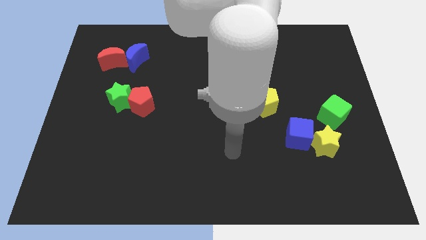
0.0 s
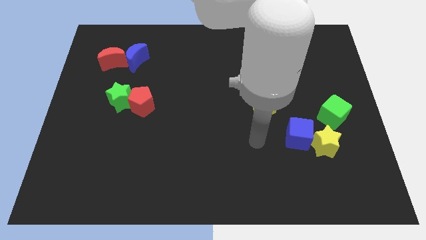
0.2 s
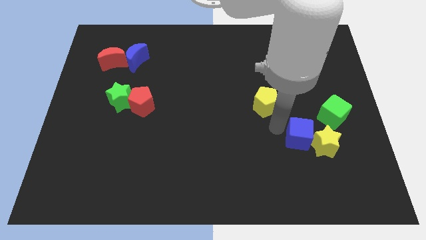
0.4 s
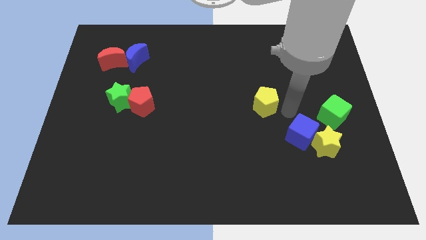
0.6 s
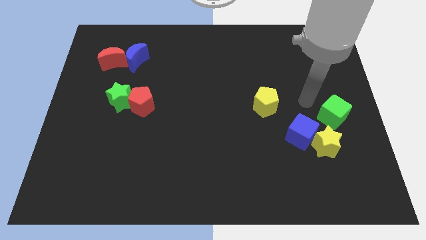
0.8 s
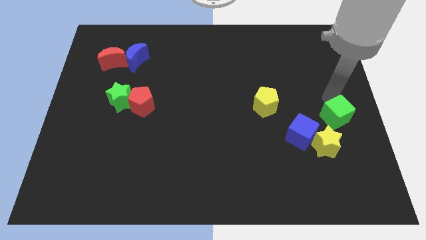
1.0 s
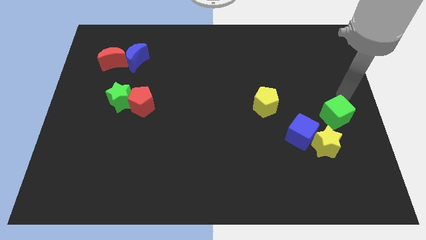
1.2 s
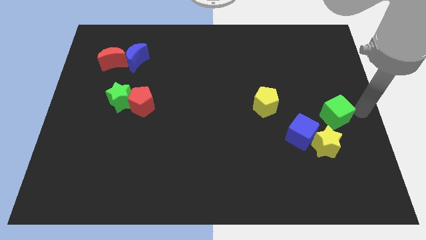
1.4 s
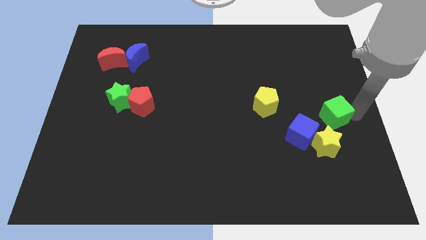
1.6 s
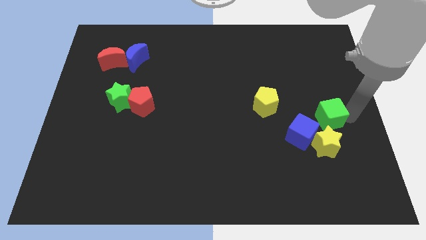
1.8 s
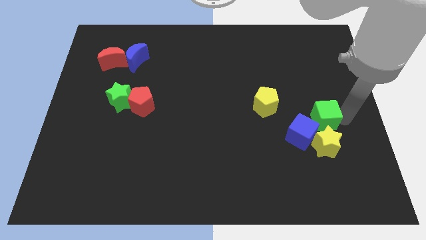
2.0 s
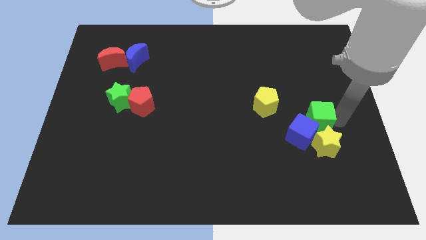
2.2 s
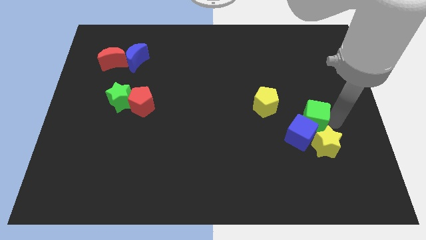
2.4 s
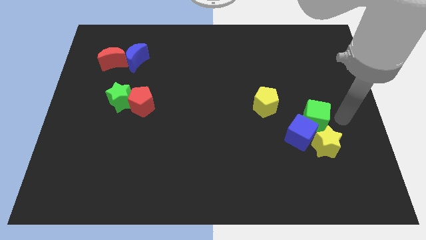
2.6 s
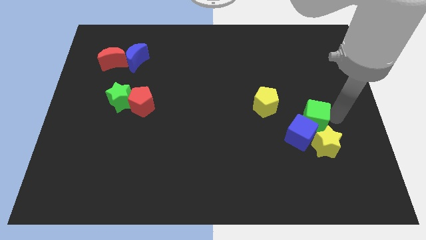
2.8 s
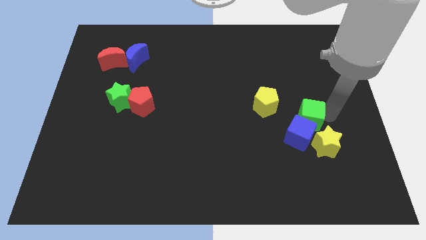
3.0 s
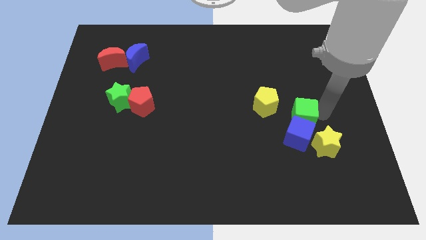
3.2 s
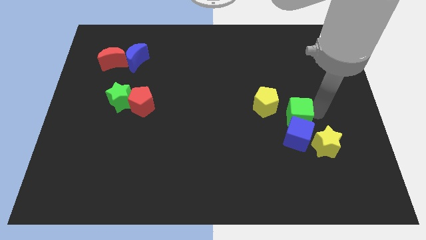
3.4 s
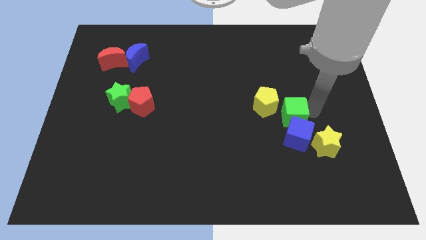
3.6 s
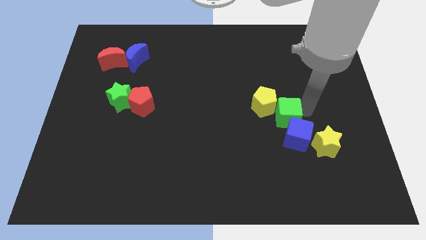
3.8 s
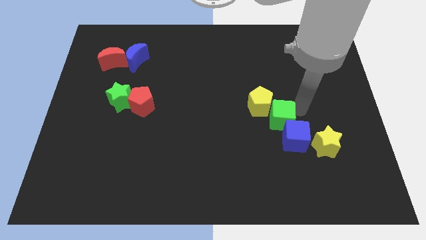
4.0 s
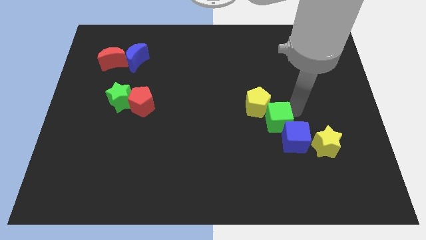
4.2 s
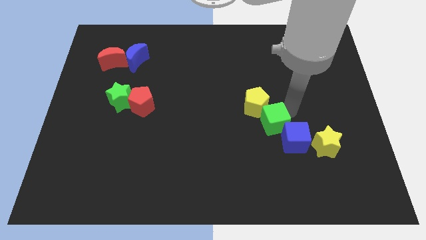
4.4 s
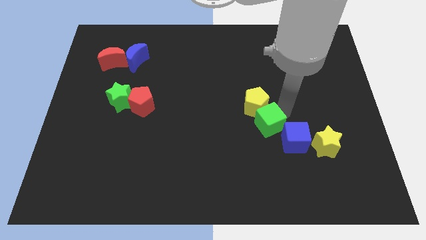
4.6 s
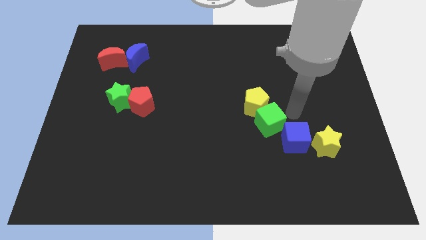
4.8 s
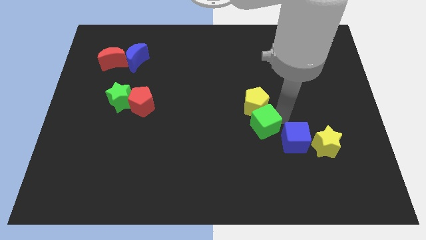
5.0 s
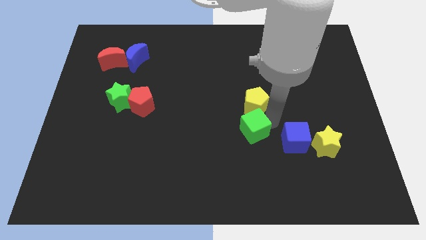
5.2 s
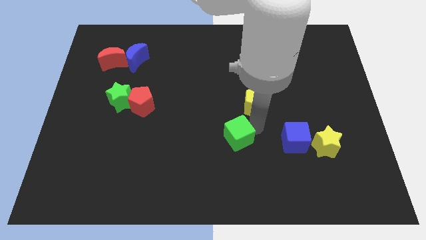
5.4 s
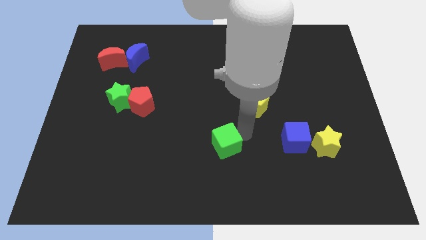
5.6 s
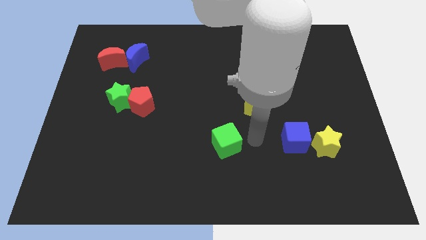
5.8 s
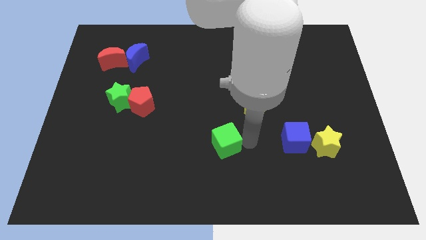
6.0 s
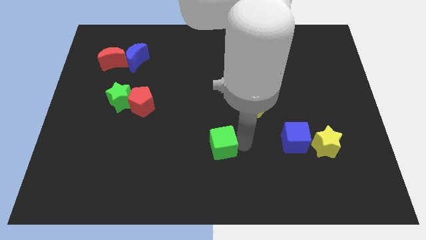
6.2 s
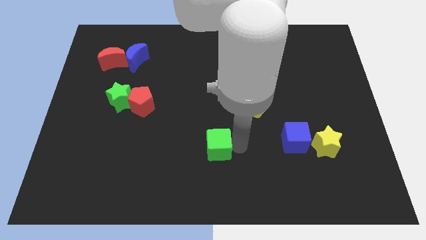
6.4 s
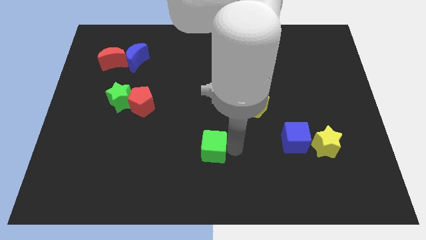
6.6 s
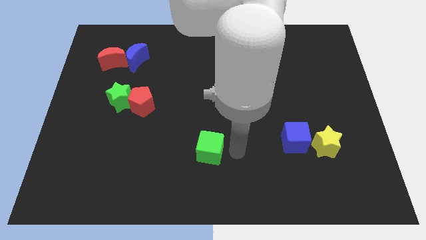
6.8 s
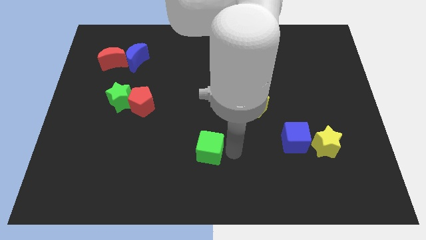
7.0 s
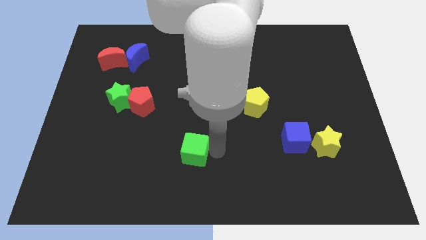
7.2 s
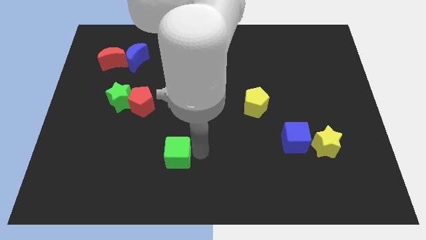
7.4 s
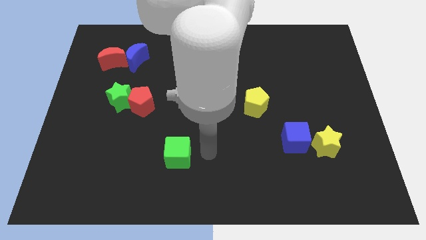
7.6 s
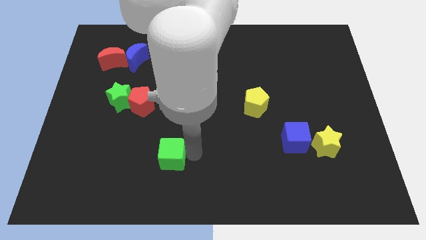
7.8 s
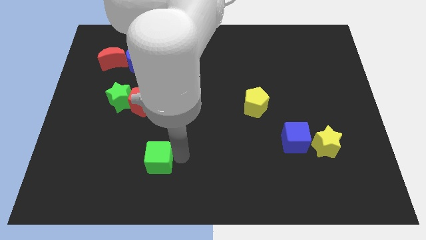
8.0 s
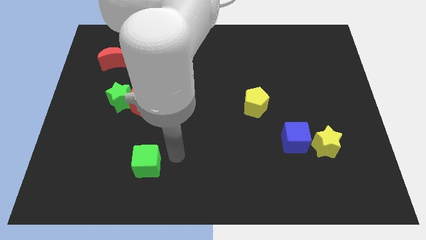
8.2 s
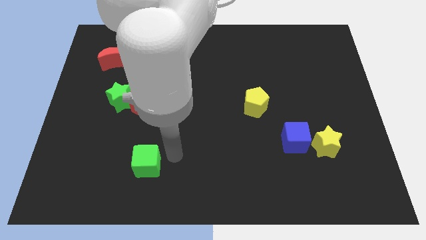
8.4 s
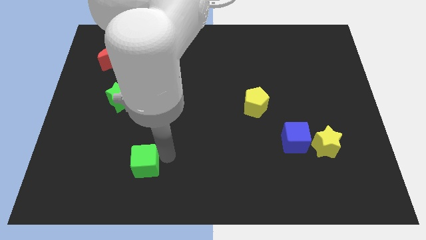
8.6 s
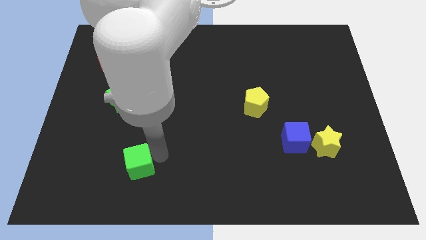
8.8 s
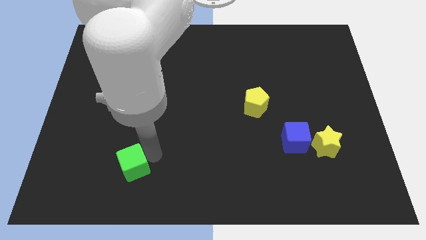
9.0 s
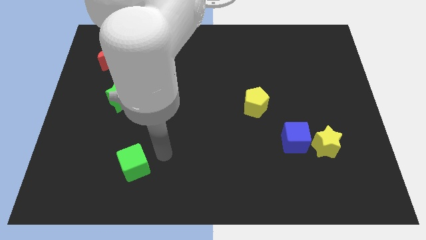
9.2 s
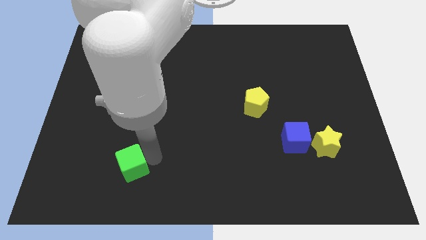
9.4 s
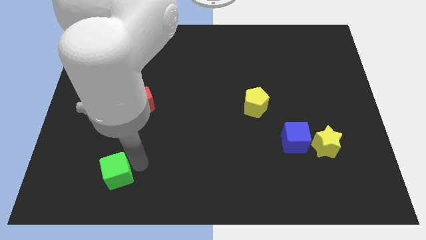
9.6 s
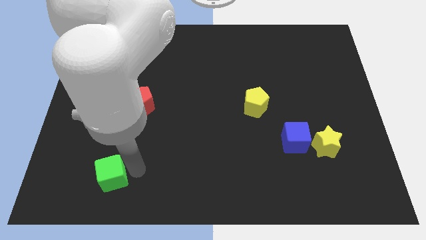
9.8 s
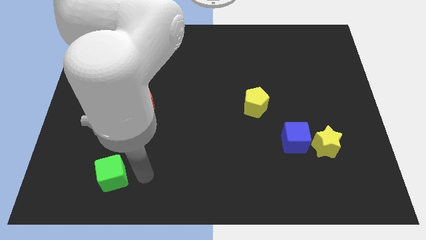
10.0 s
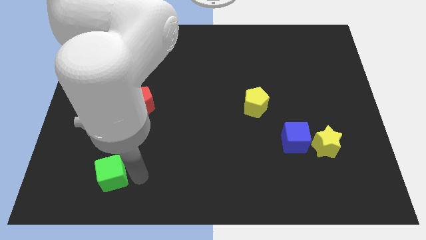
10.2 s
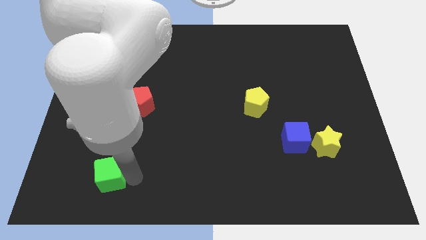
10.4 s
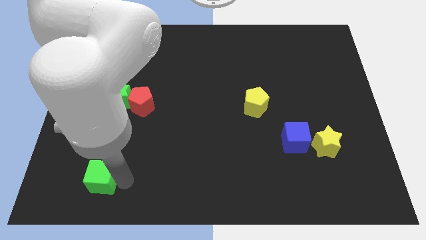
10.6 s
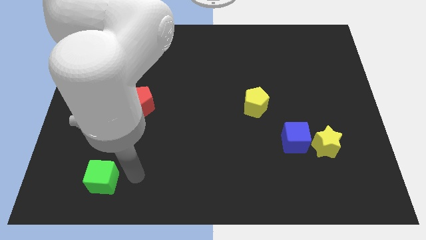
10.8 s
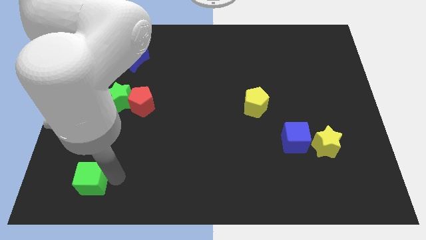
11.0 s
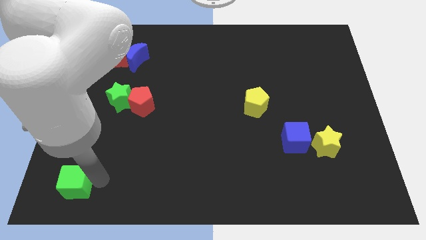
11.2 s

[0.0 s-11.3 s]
push the green cube to the bottom left

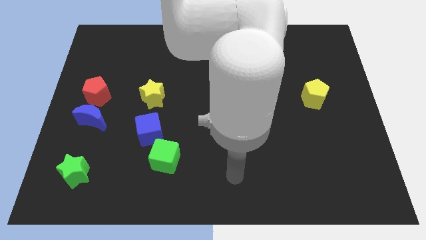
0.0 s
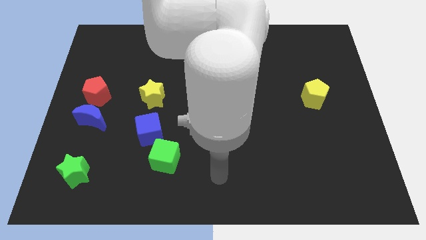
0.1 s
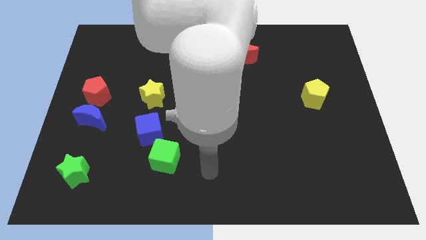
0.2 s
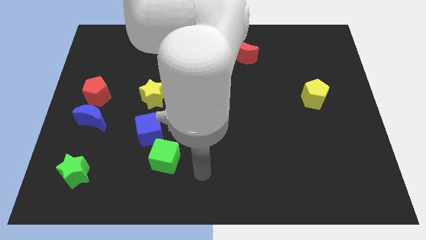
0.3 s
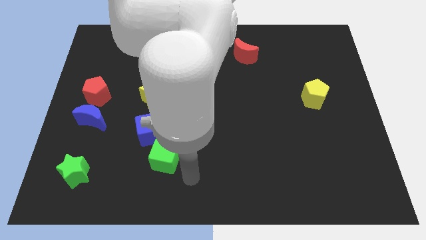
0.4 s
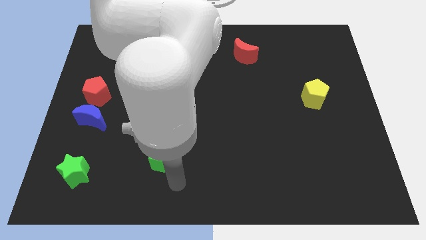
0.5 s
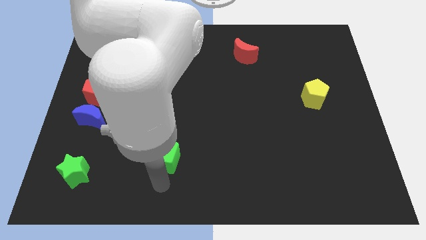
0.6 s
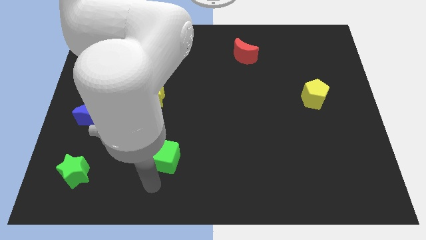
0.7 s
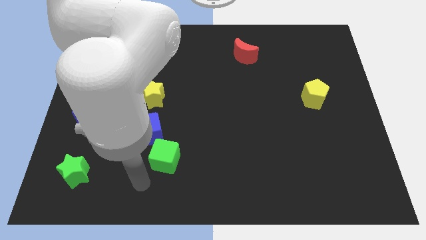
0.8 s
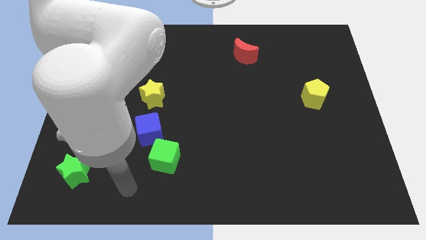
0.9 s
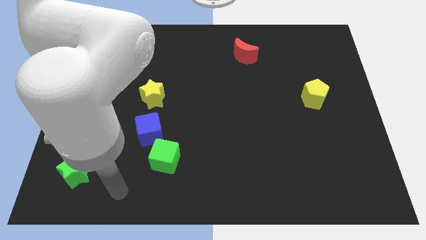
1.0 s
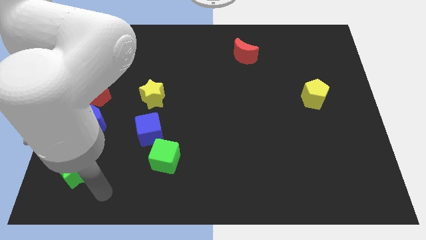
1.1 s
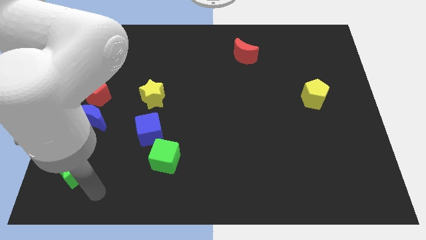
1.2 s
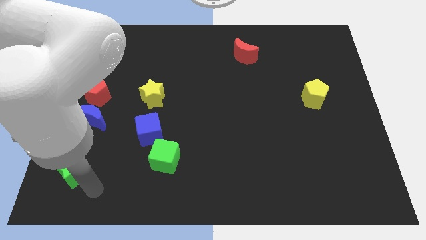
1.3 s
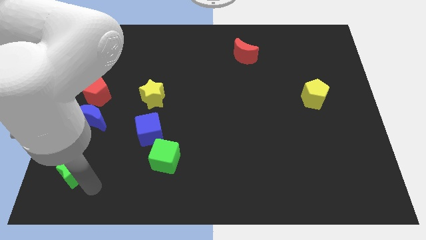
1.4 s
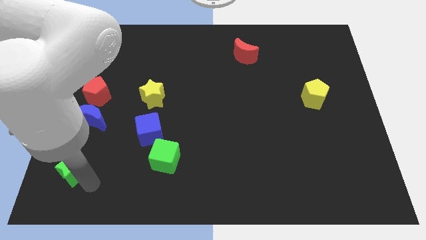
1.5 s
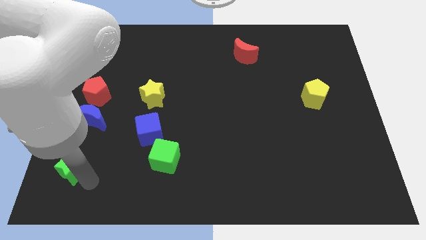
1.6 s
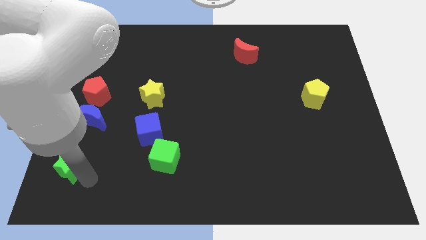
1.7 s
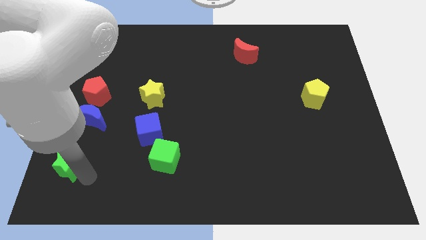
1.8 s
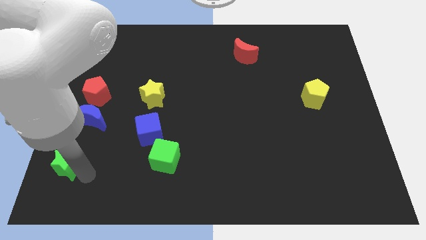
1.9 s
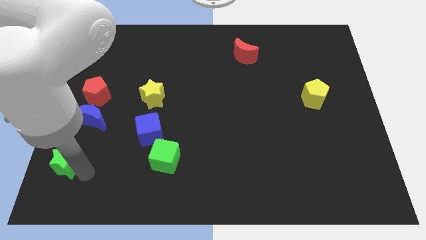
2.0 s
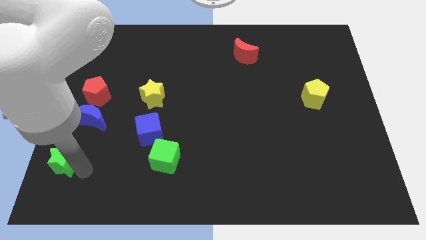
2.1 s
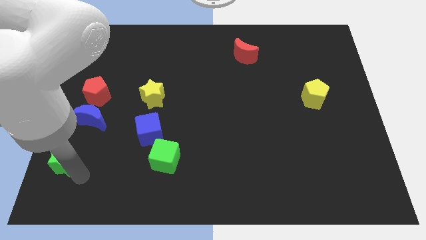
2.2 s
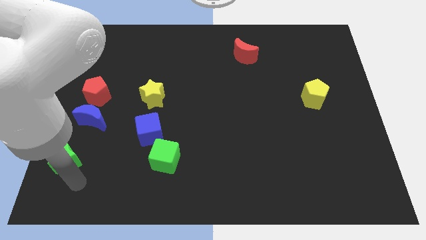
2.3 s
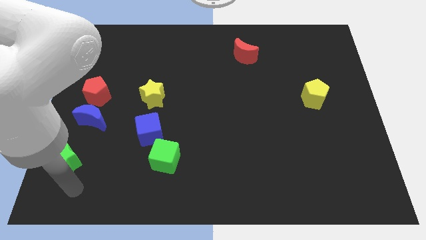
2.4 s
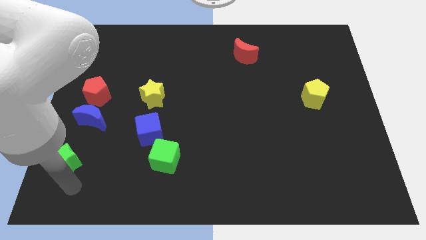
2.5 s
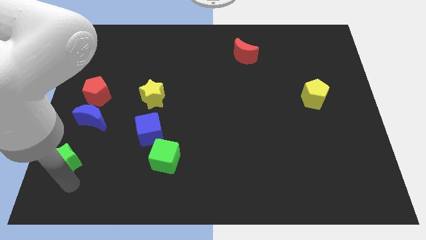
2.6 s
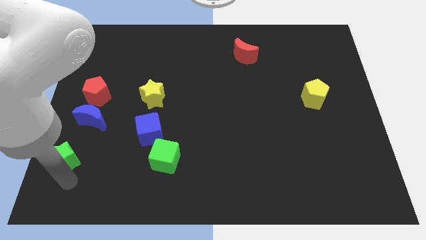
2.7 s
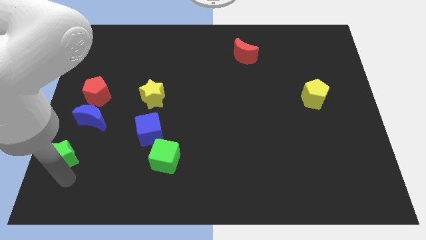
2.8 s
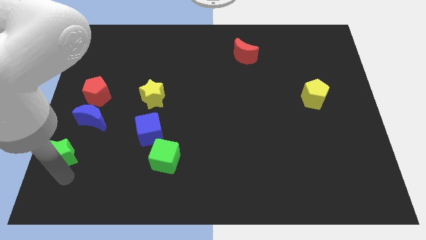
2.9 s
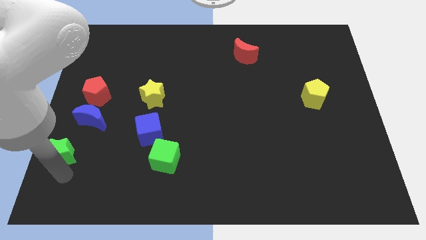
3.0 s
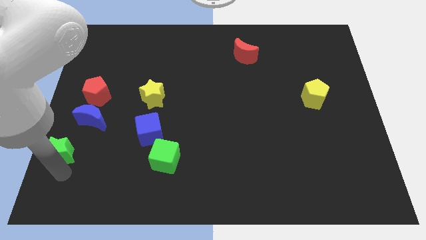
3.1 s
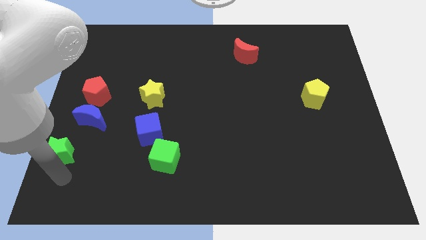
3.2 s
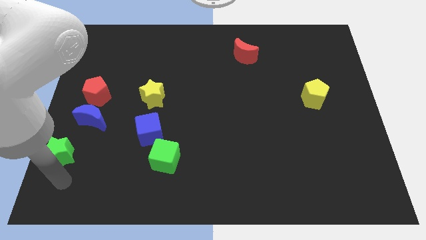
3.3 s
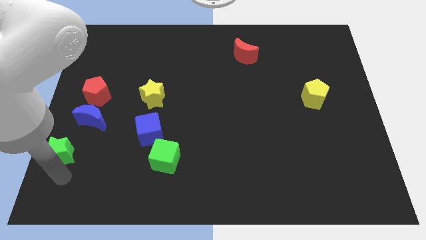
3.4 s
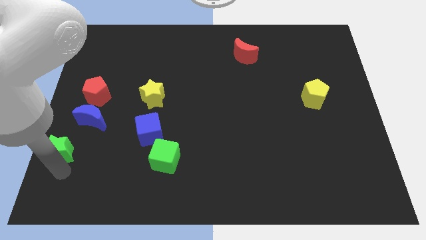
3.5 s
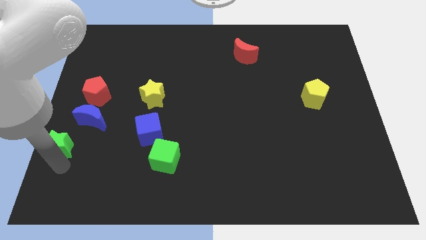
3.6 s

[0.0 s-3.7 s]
put the green star to the left side of the board
